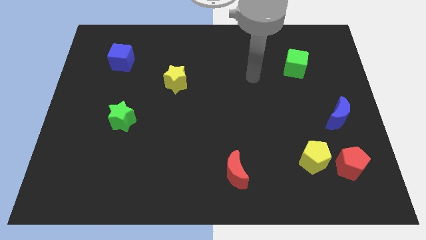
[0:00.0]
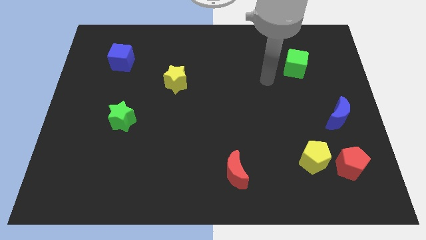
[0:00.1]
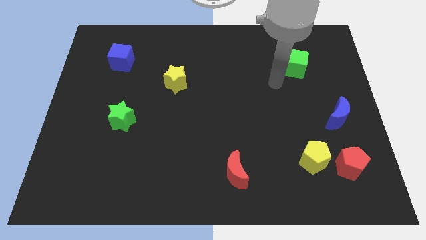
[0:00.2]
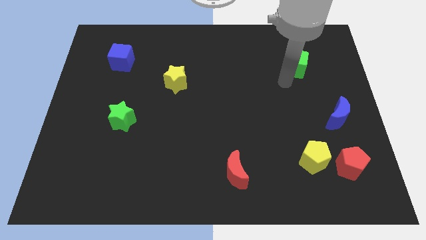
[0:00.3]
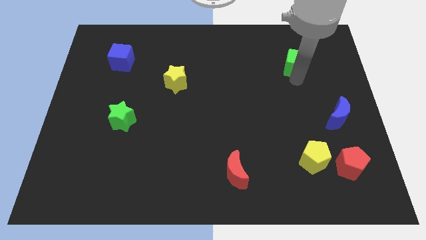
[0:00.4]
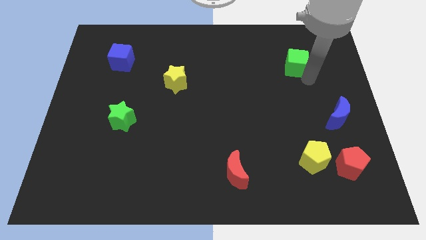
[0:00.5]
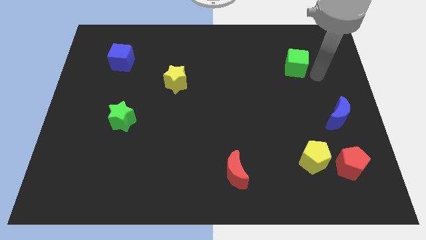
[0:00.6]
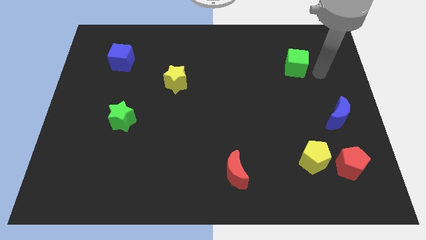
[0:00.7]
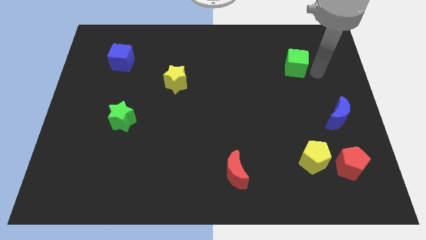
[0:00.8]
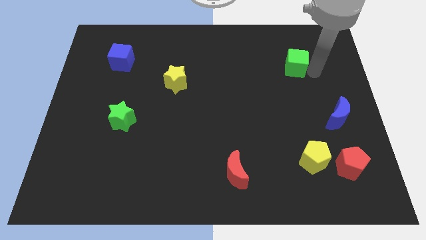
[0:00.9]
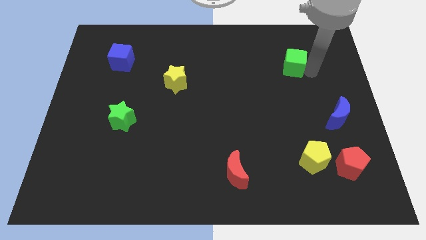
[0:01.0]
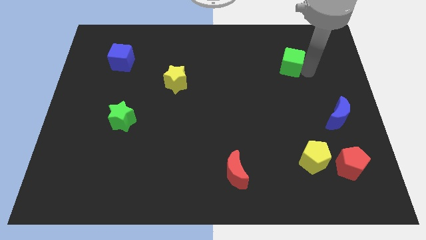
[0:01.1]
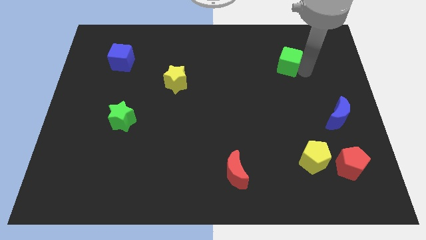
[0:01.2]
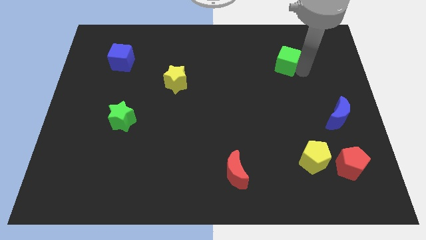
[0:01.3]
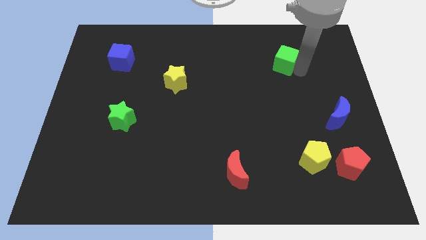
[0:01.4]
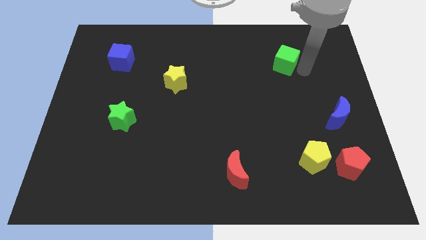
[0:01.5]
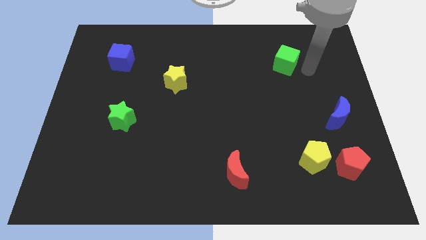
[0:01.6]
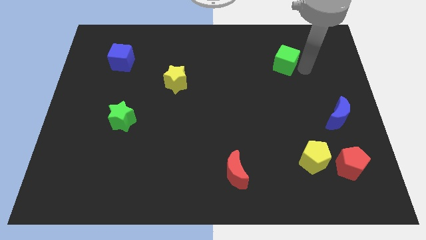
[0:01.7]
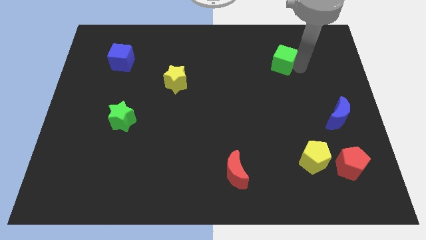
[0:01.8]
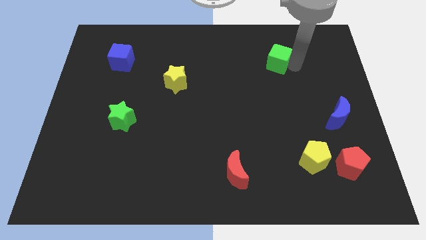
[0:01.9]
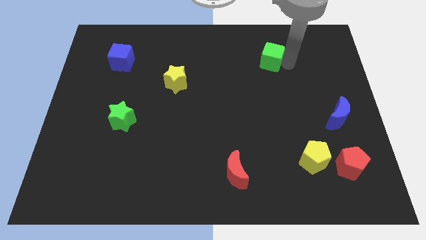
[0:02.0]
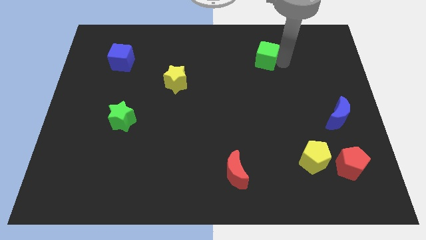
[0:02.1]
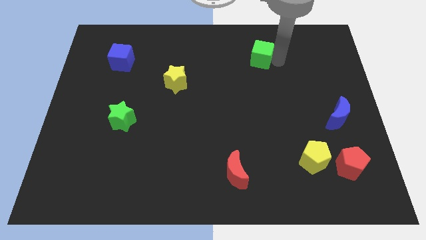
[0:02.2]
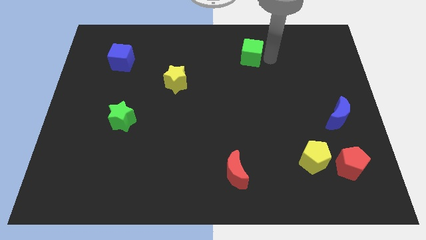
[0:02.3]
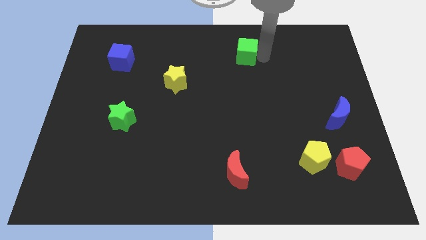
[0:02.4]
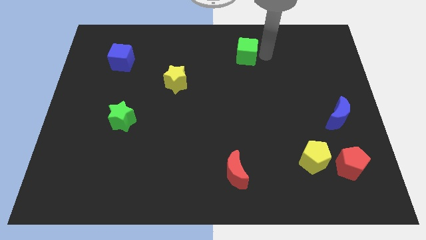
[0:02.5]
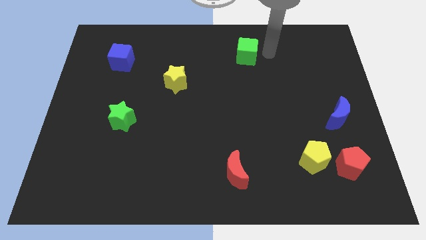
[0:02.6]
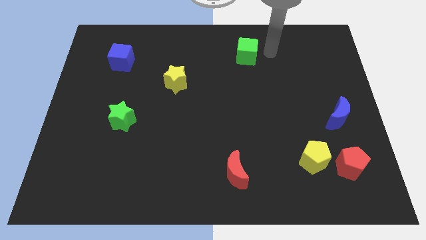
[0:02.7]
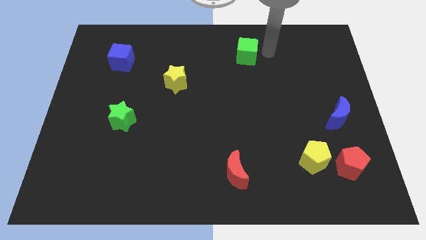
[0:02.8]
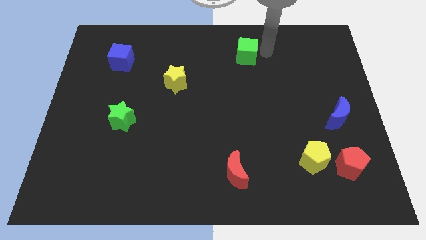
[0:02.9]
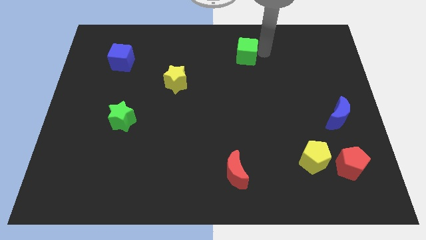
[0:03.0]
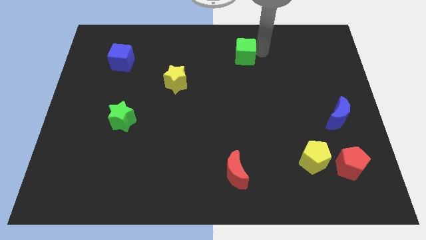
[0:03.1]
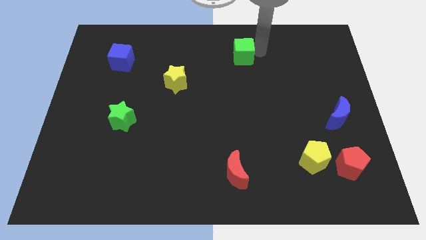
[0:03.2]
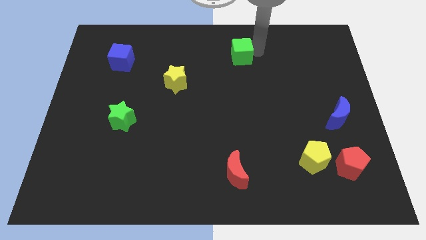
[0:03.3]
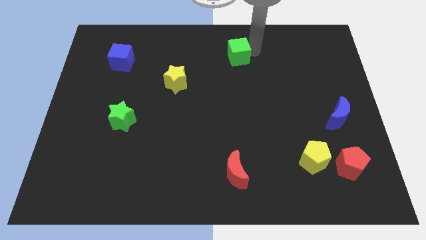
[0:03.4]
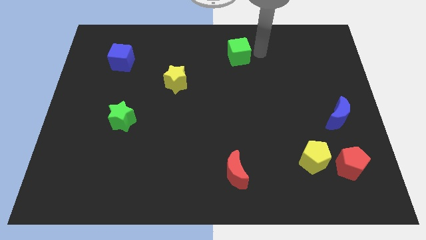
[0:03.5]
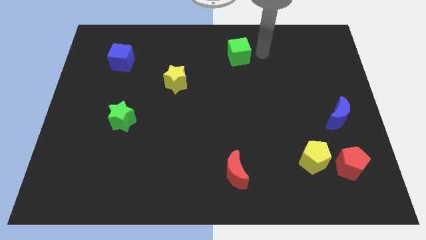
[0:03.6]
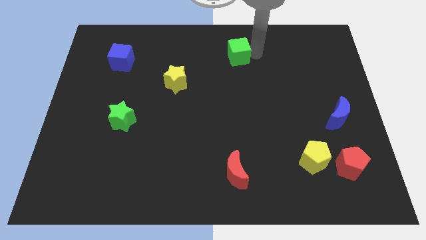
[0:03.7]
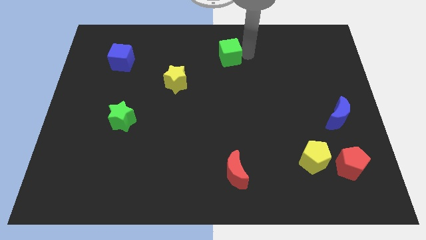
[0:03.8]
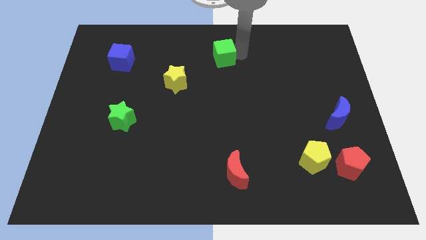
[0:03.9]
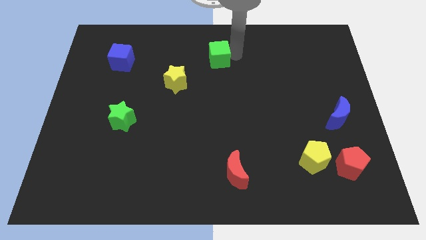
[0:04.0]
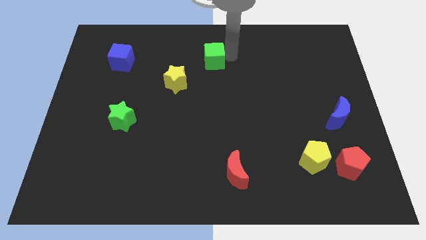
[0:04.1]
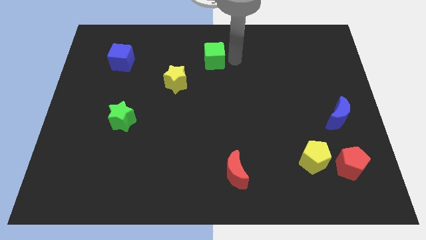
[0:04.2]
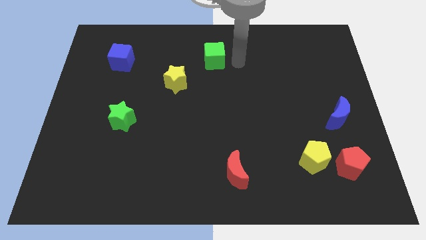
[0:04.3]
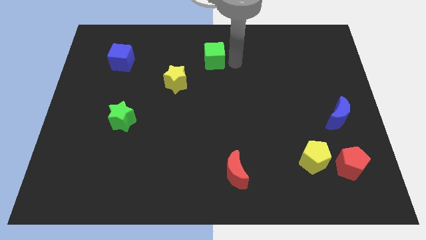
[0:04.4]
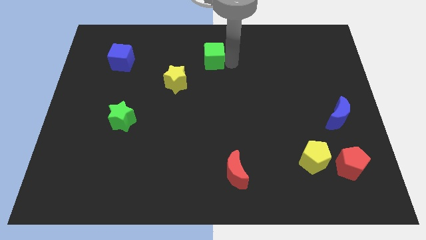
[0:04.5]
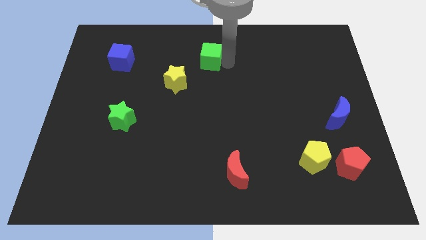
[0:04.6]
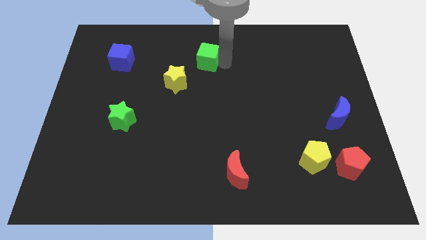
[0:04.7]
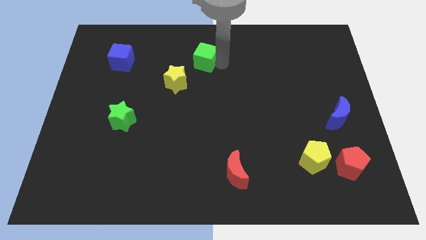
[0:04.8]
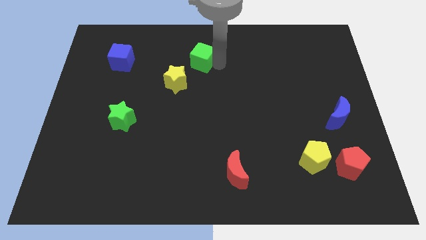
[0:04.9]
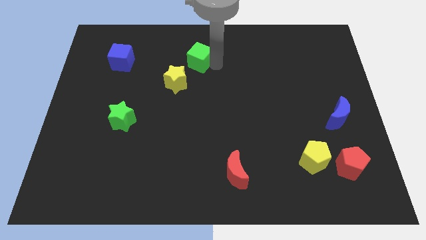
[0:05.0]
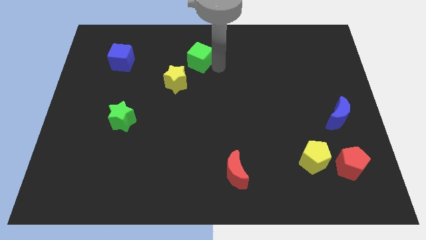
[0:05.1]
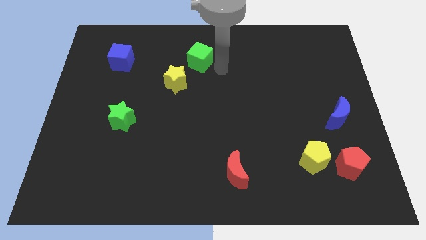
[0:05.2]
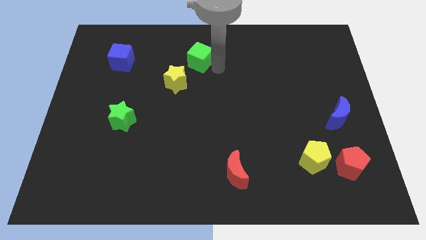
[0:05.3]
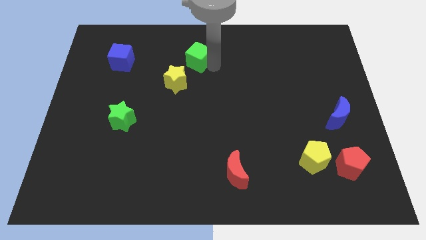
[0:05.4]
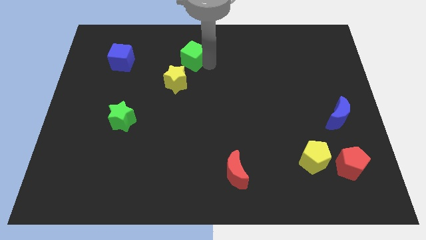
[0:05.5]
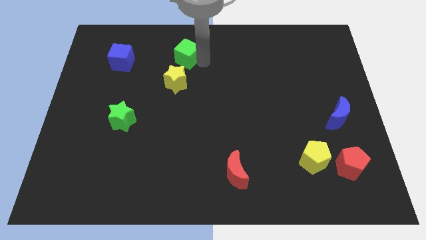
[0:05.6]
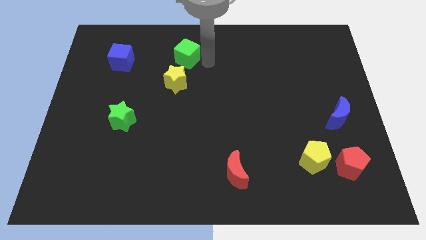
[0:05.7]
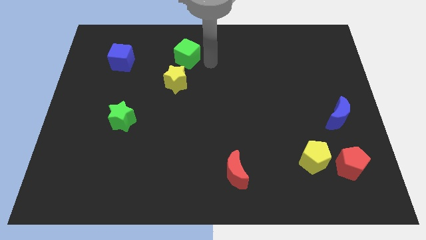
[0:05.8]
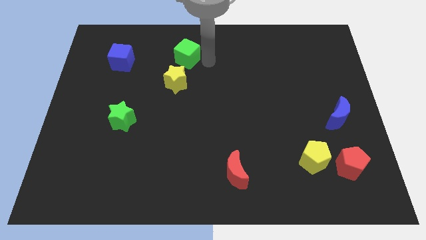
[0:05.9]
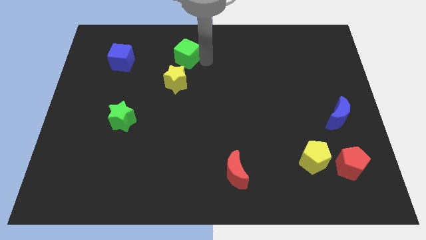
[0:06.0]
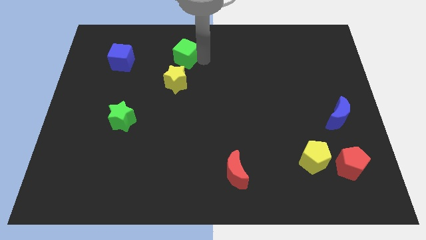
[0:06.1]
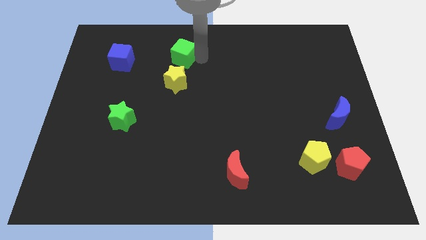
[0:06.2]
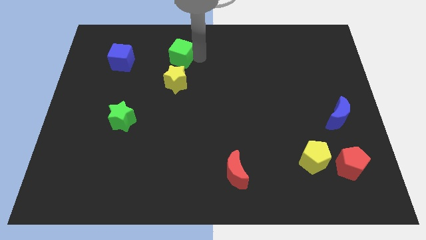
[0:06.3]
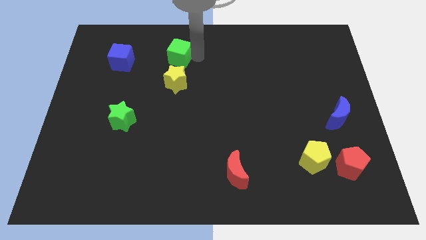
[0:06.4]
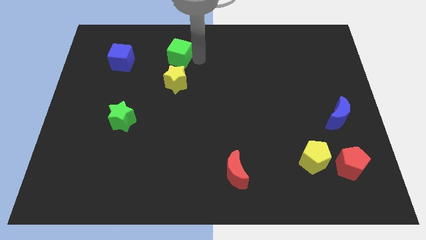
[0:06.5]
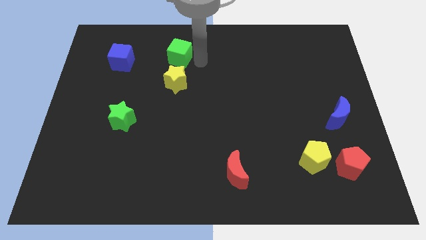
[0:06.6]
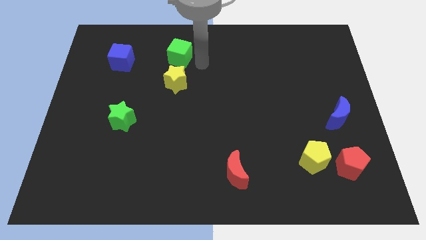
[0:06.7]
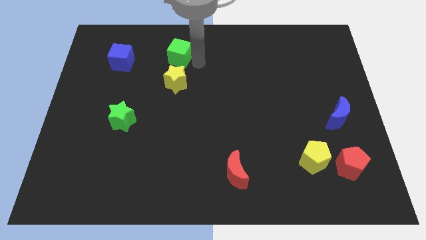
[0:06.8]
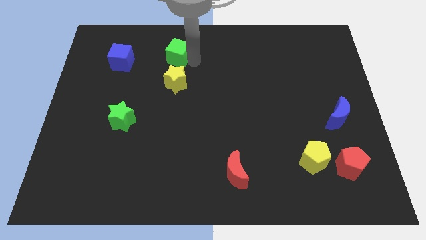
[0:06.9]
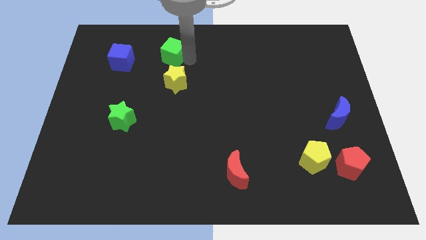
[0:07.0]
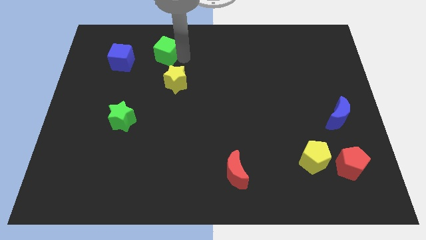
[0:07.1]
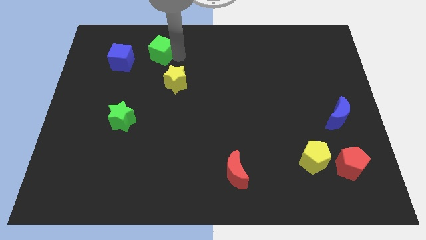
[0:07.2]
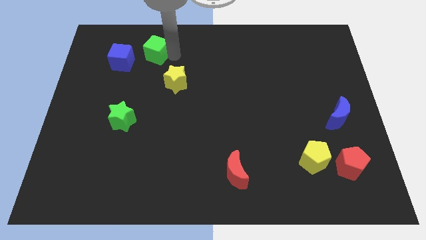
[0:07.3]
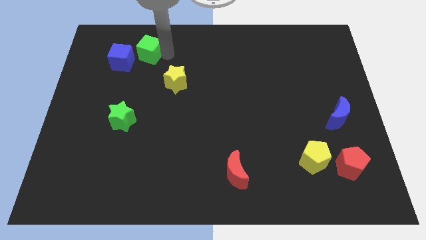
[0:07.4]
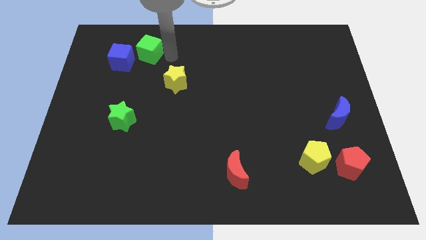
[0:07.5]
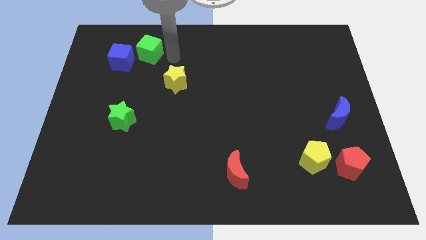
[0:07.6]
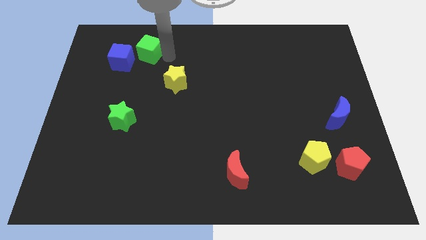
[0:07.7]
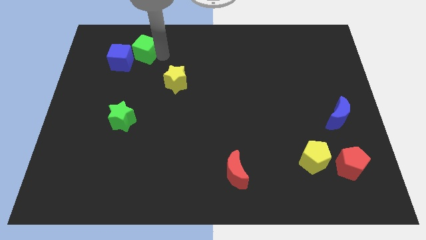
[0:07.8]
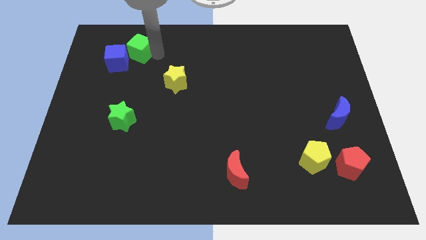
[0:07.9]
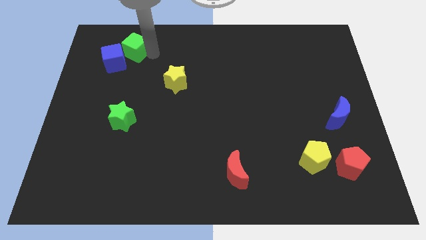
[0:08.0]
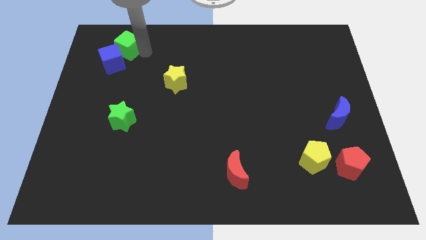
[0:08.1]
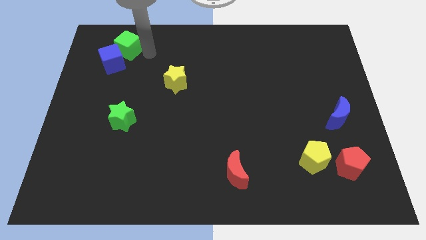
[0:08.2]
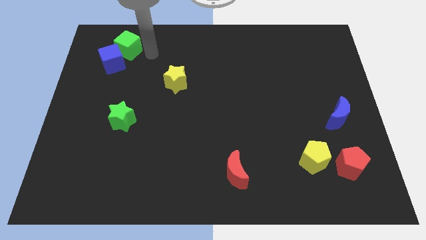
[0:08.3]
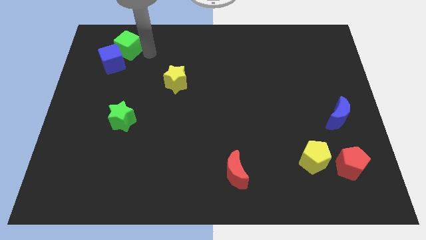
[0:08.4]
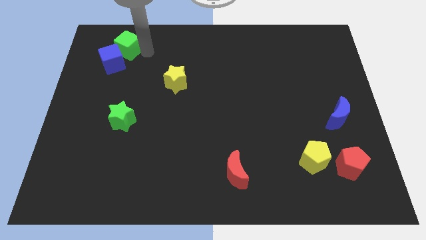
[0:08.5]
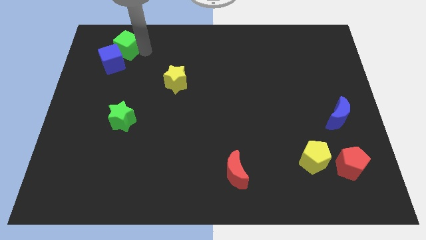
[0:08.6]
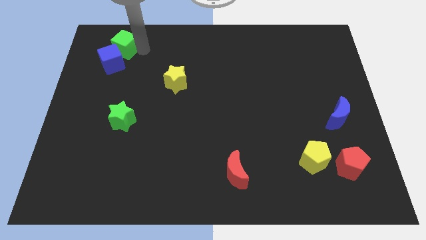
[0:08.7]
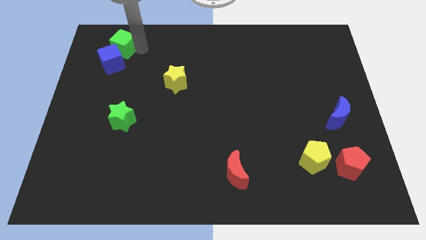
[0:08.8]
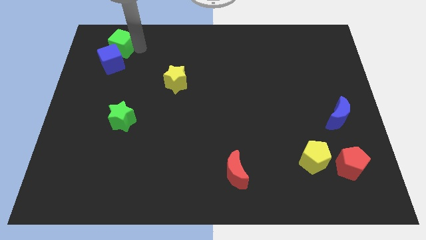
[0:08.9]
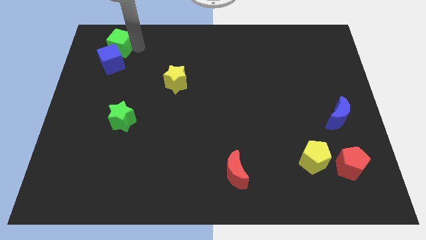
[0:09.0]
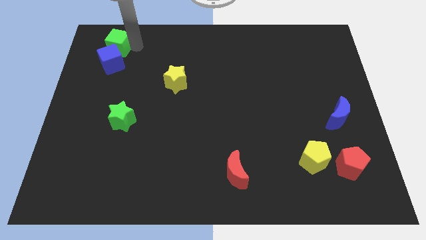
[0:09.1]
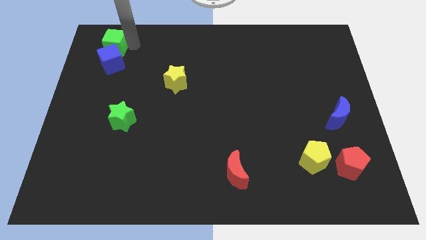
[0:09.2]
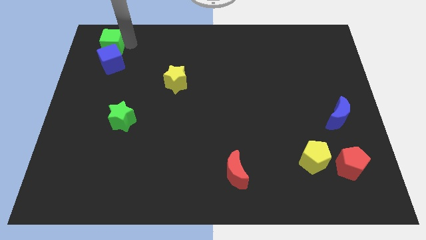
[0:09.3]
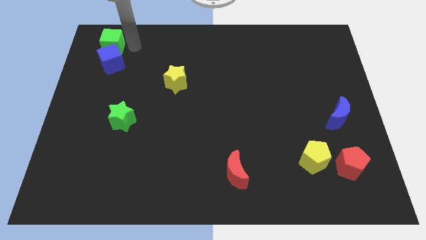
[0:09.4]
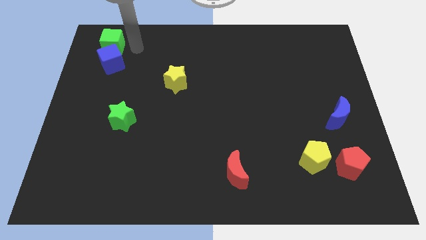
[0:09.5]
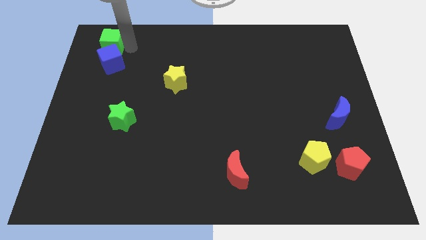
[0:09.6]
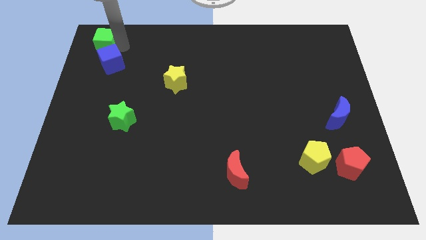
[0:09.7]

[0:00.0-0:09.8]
slide the green cube to the upper left corner
